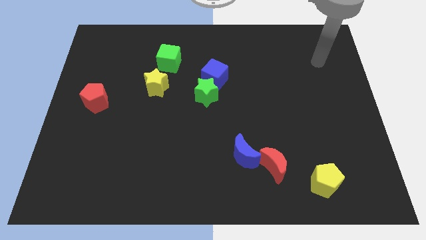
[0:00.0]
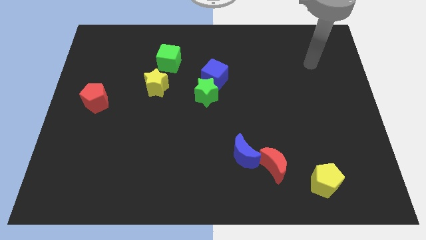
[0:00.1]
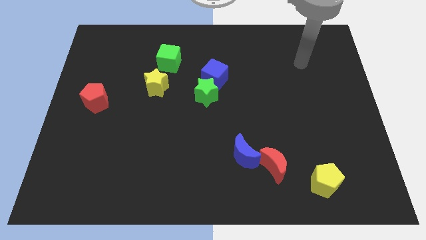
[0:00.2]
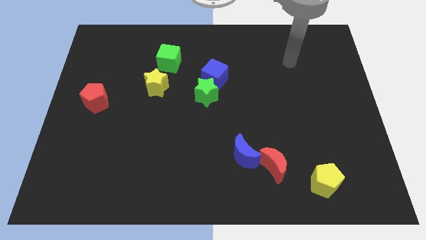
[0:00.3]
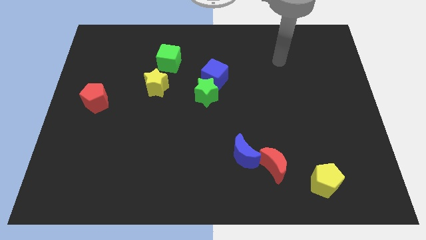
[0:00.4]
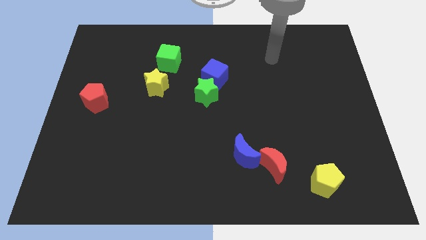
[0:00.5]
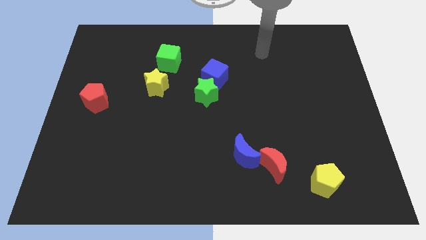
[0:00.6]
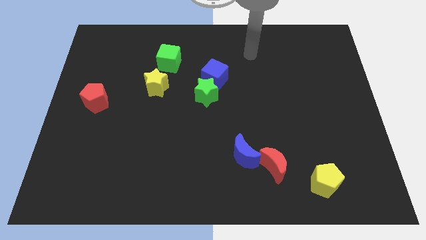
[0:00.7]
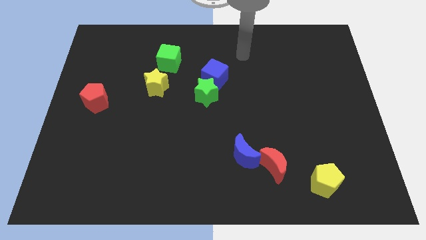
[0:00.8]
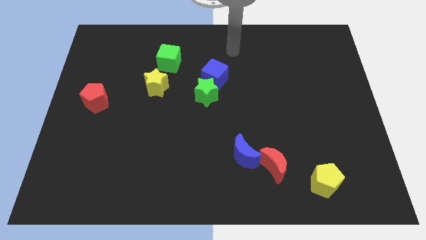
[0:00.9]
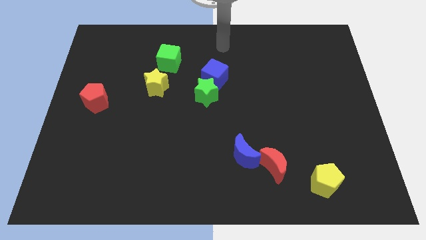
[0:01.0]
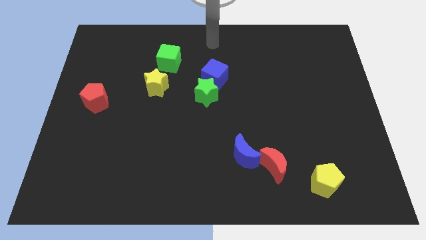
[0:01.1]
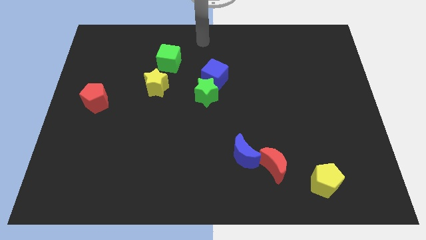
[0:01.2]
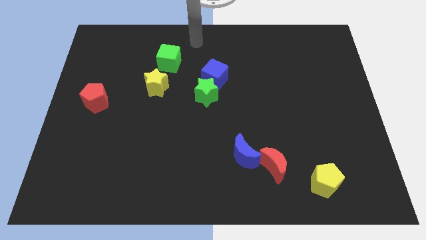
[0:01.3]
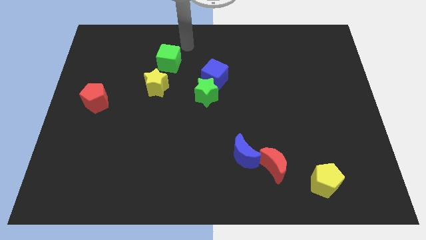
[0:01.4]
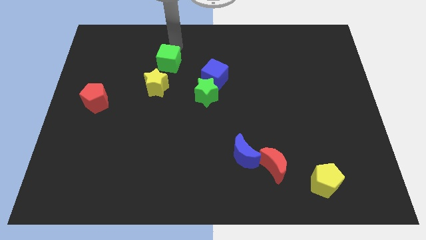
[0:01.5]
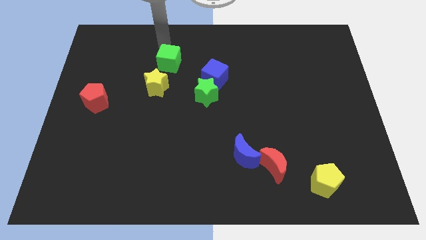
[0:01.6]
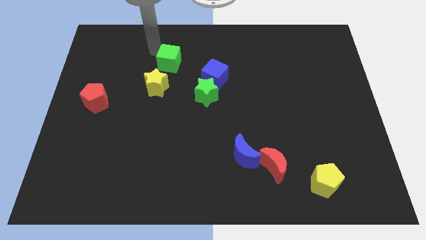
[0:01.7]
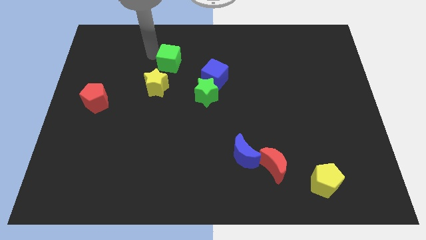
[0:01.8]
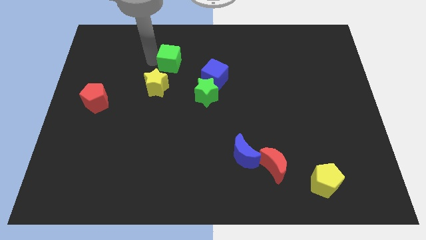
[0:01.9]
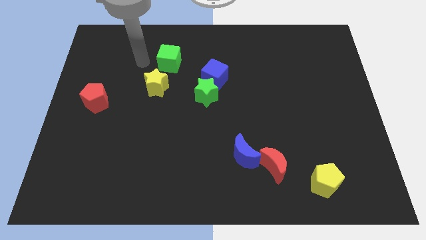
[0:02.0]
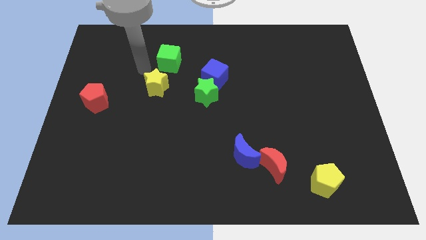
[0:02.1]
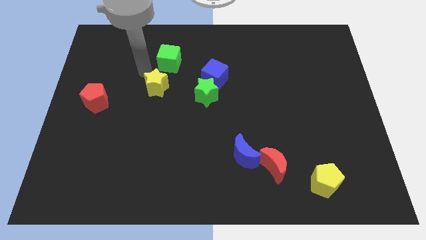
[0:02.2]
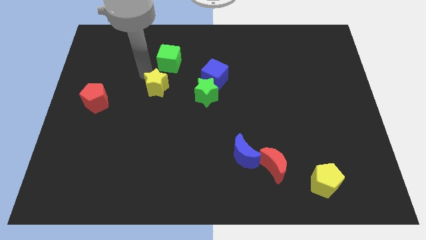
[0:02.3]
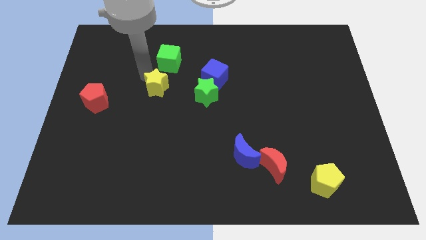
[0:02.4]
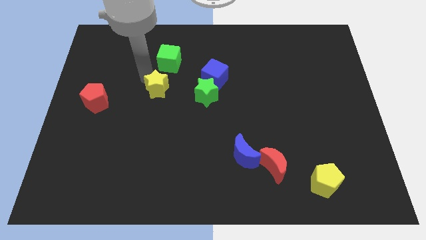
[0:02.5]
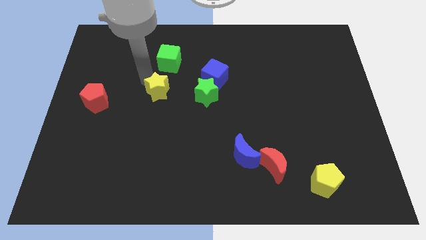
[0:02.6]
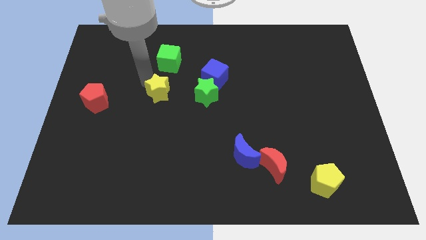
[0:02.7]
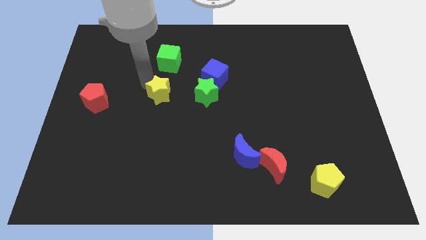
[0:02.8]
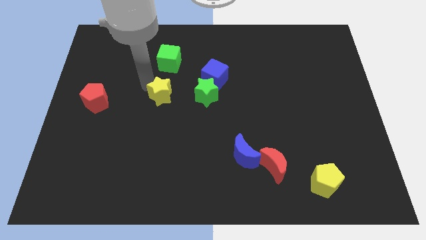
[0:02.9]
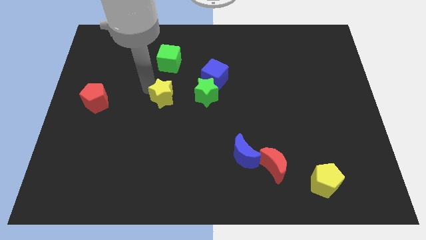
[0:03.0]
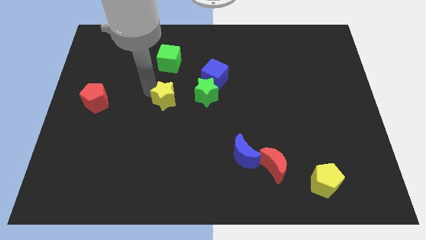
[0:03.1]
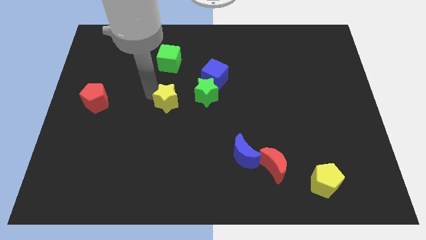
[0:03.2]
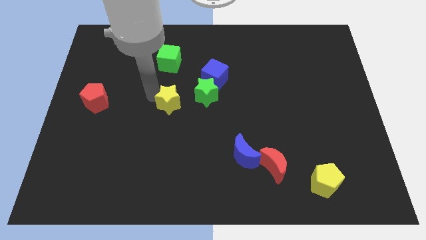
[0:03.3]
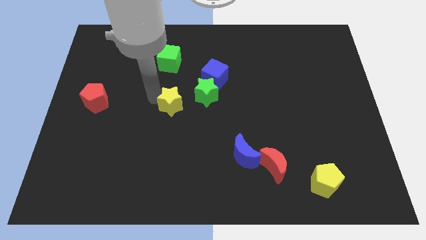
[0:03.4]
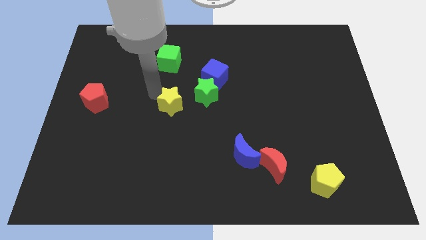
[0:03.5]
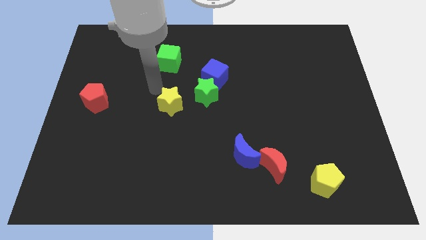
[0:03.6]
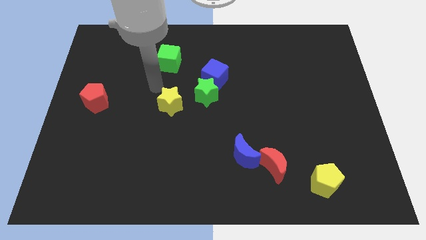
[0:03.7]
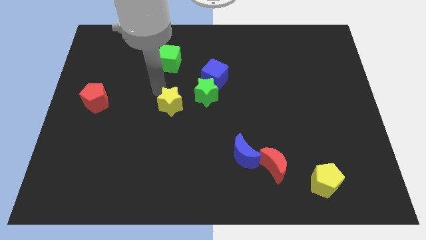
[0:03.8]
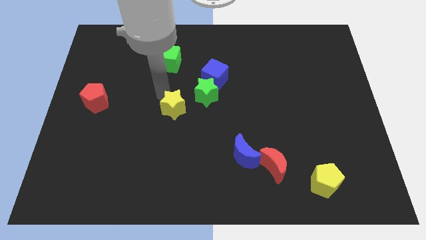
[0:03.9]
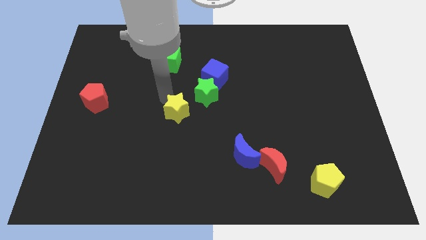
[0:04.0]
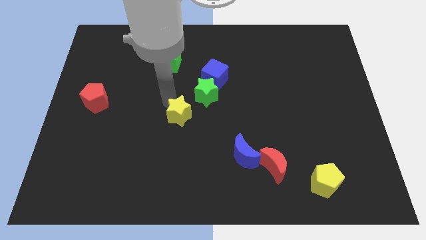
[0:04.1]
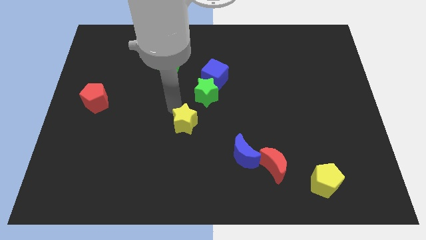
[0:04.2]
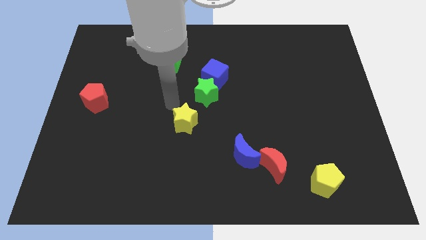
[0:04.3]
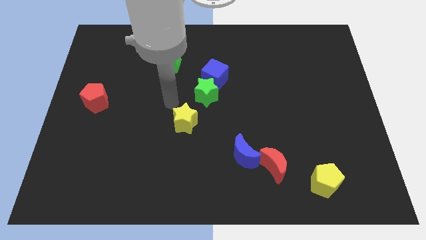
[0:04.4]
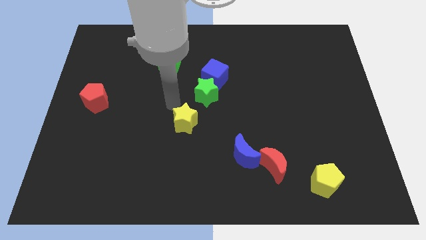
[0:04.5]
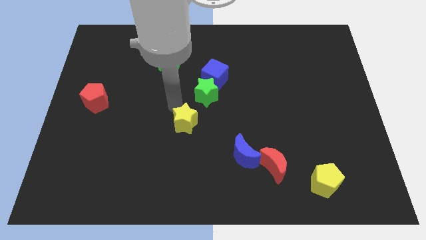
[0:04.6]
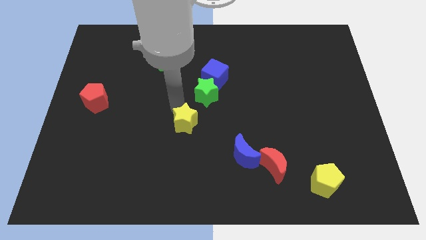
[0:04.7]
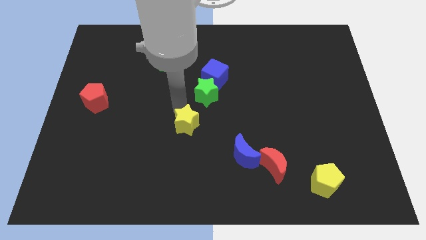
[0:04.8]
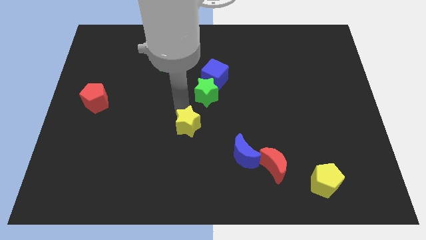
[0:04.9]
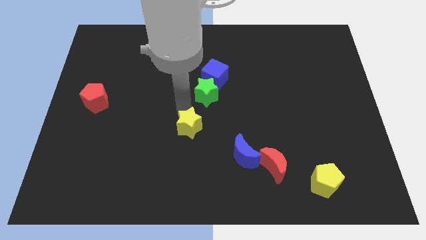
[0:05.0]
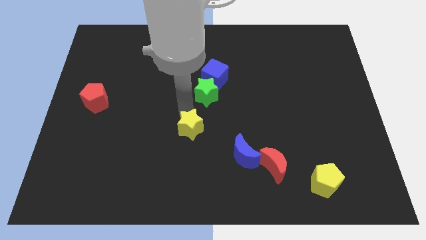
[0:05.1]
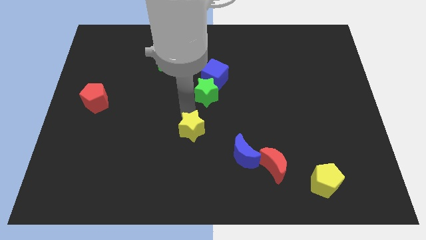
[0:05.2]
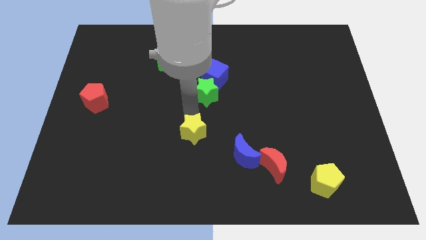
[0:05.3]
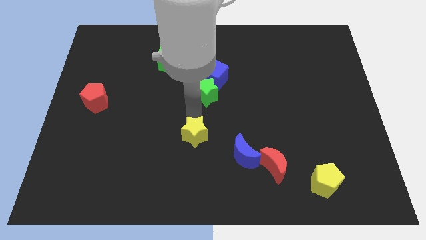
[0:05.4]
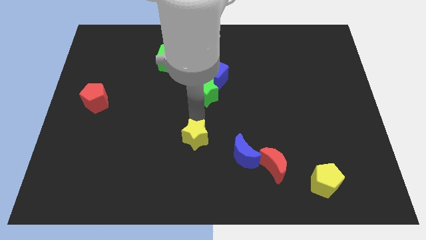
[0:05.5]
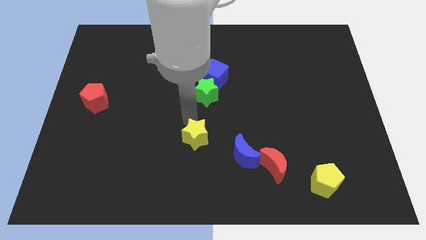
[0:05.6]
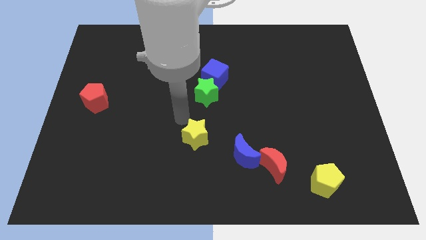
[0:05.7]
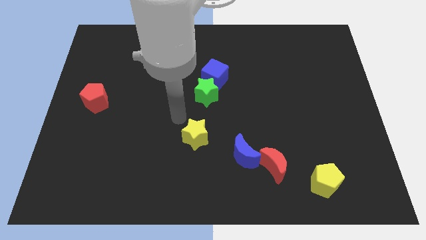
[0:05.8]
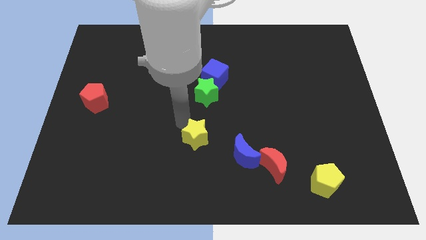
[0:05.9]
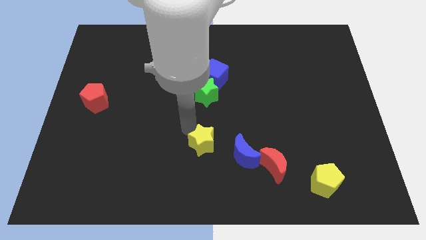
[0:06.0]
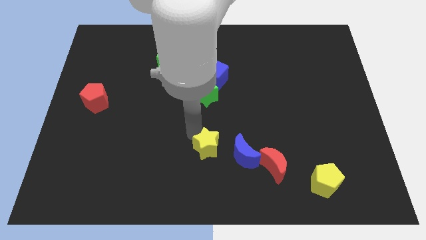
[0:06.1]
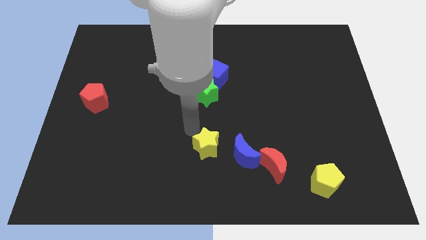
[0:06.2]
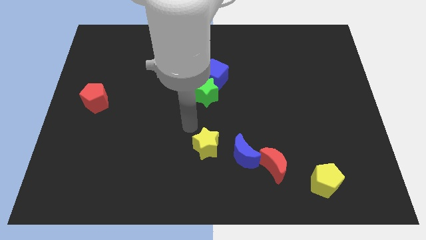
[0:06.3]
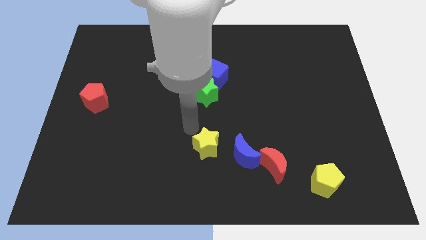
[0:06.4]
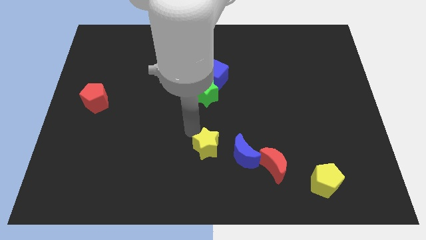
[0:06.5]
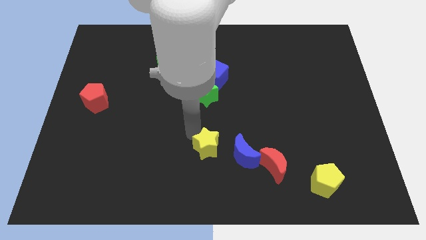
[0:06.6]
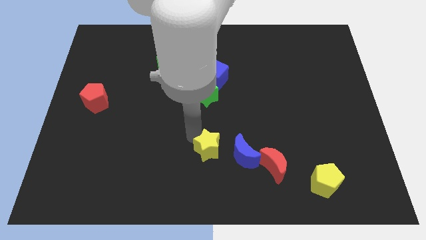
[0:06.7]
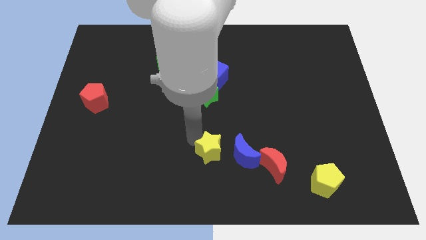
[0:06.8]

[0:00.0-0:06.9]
put the yellow star just left of the red moon

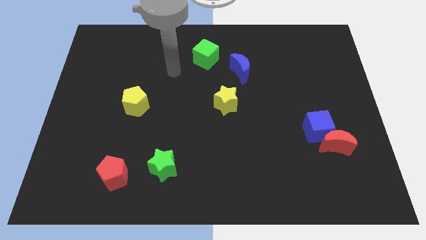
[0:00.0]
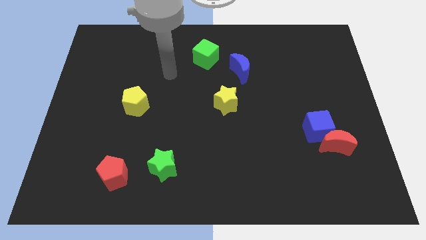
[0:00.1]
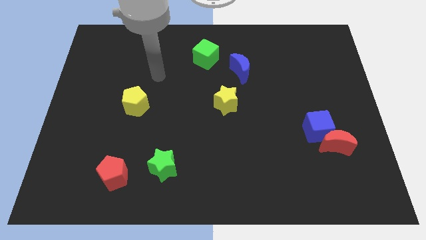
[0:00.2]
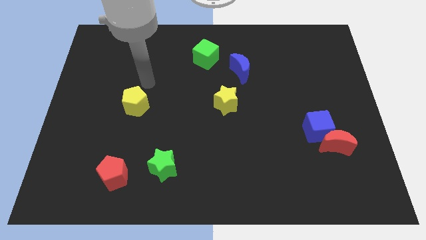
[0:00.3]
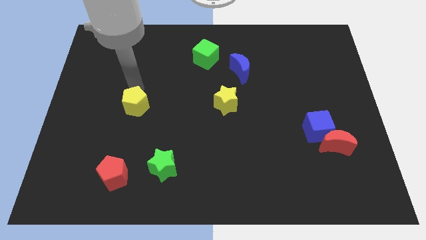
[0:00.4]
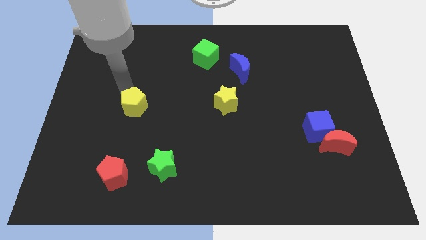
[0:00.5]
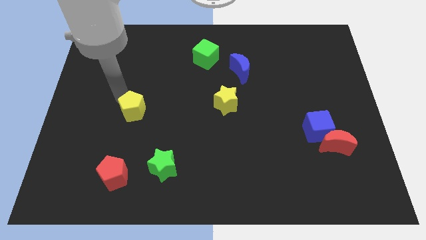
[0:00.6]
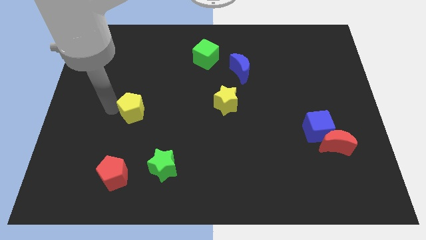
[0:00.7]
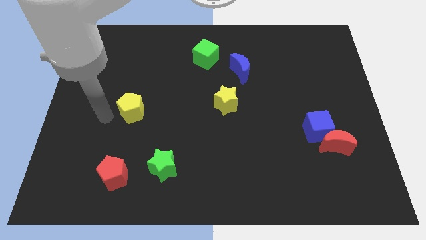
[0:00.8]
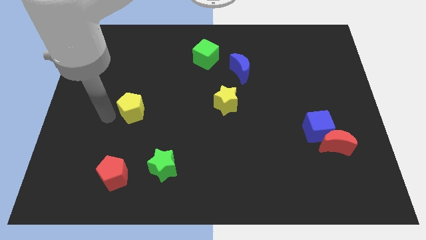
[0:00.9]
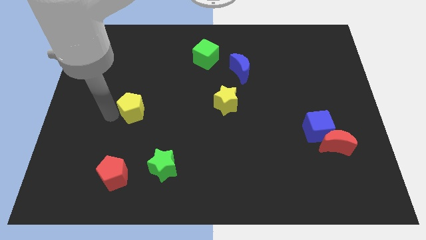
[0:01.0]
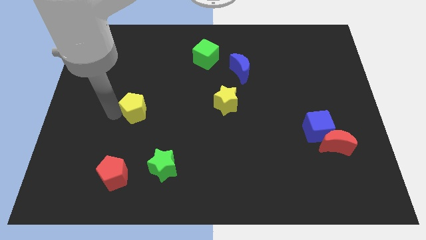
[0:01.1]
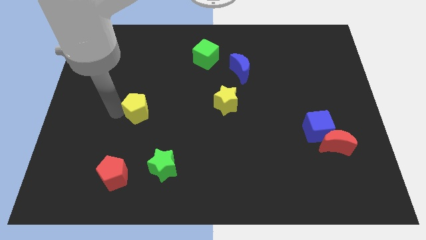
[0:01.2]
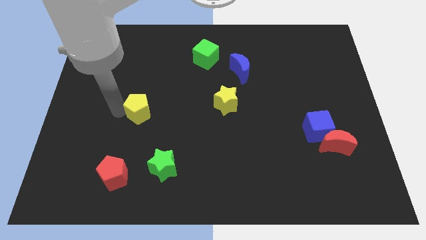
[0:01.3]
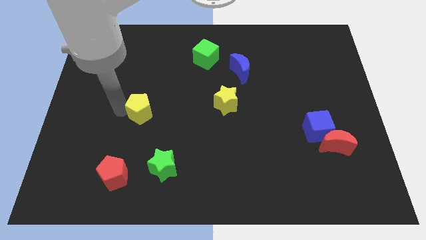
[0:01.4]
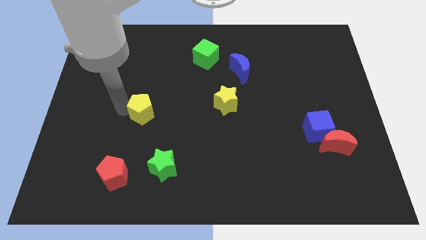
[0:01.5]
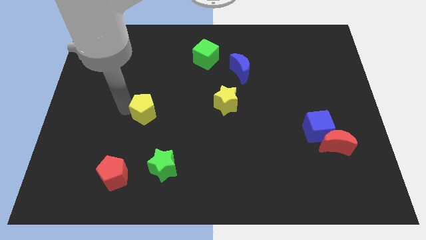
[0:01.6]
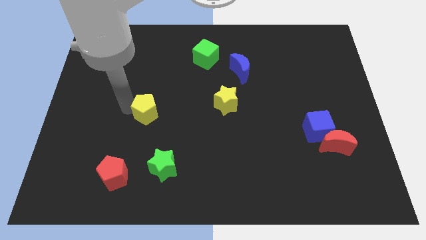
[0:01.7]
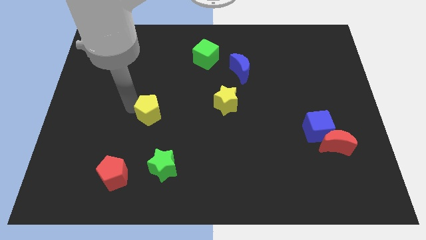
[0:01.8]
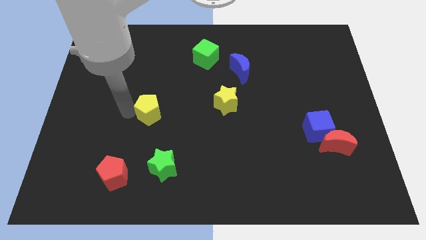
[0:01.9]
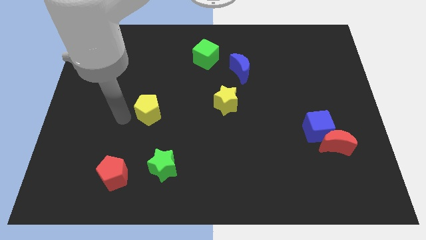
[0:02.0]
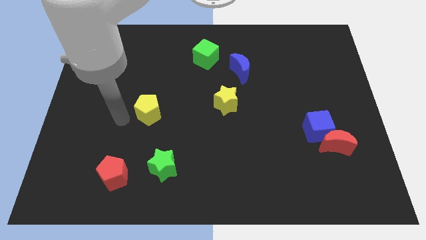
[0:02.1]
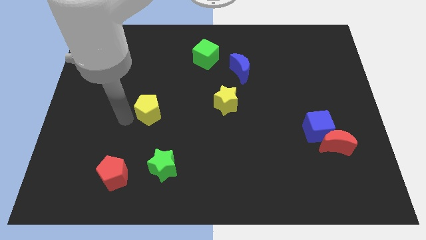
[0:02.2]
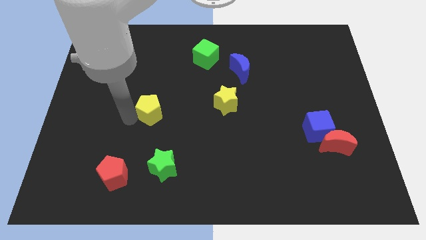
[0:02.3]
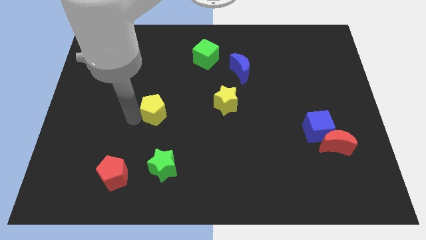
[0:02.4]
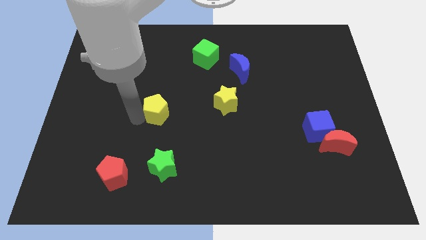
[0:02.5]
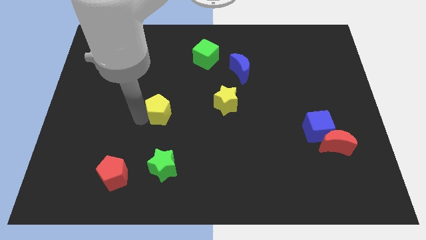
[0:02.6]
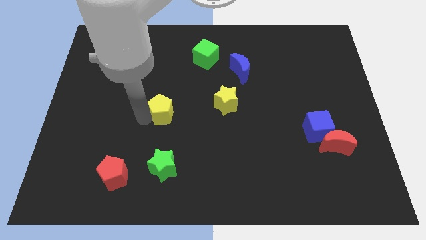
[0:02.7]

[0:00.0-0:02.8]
slide the yellow pentagon to the left of the yellow star
